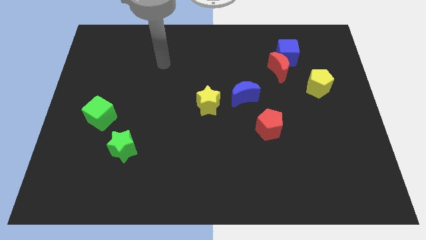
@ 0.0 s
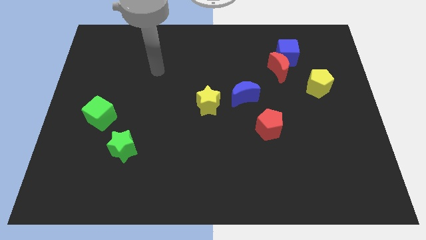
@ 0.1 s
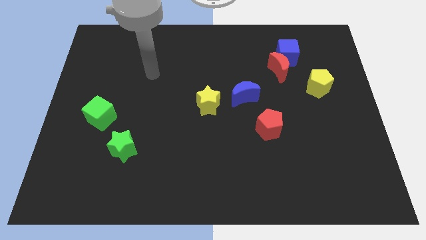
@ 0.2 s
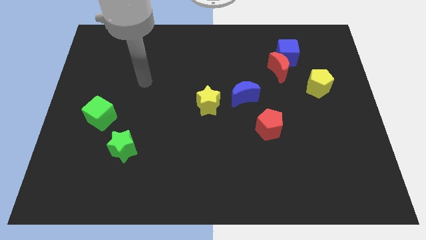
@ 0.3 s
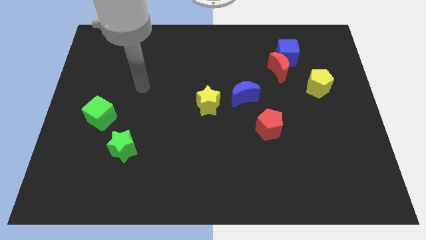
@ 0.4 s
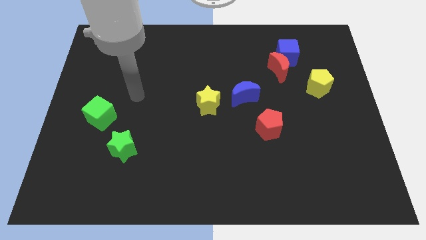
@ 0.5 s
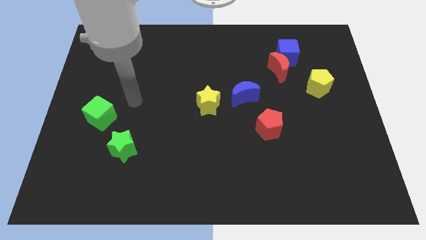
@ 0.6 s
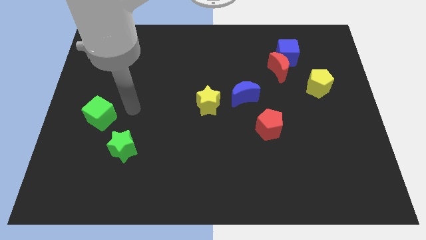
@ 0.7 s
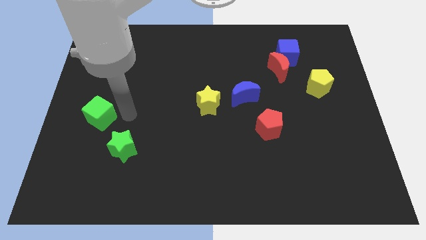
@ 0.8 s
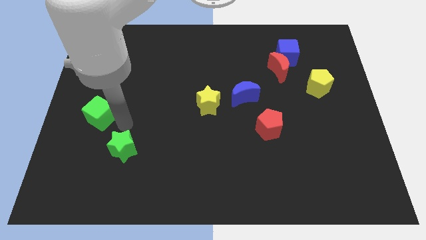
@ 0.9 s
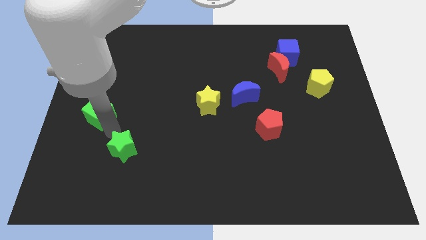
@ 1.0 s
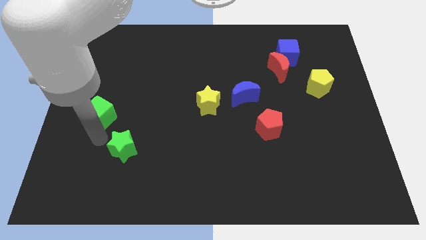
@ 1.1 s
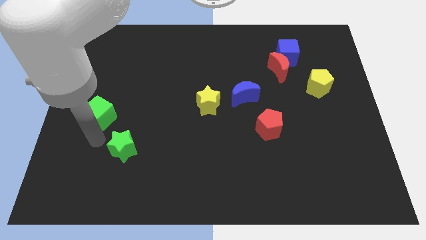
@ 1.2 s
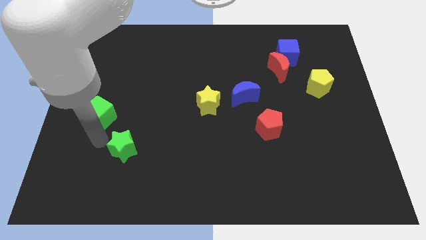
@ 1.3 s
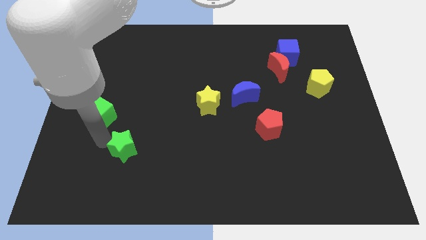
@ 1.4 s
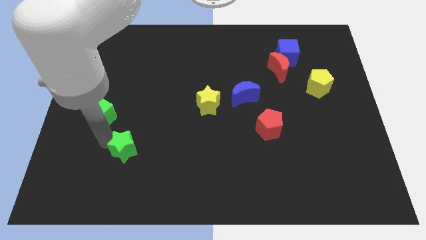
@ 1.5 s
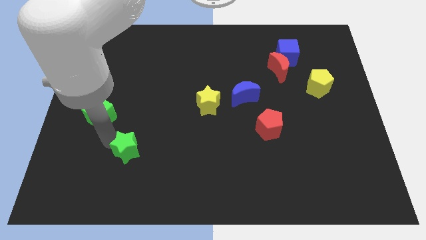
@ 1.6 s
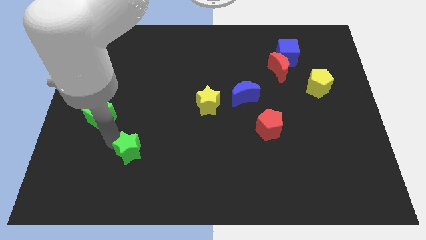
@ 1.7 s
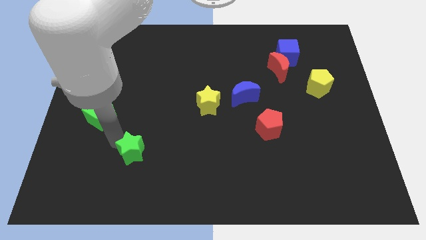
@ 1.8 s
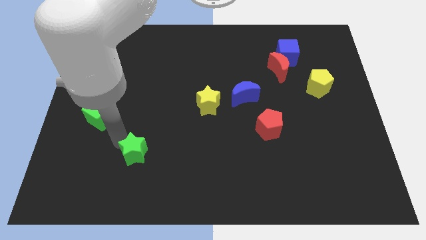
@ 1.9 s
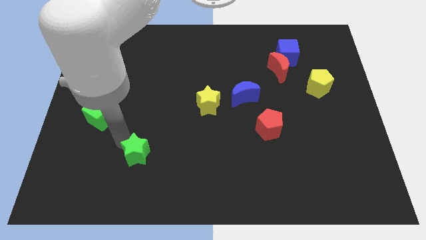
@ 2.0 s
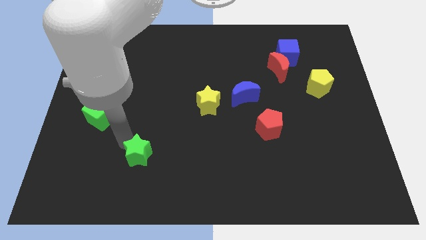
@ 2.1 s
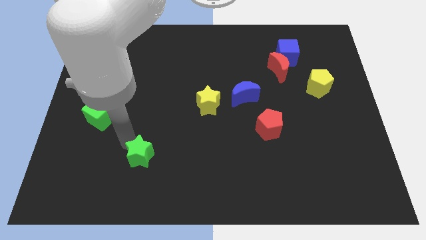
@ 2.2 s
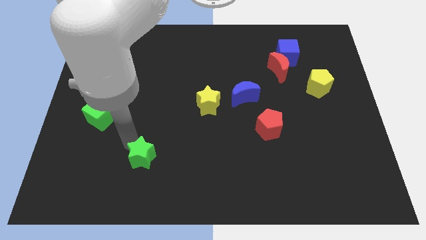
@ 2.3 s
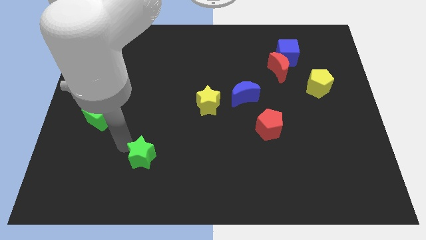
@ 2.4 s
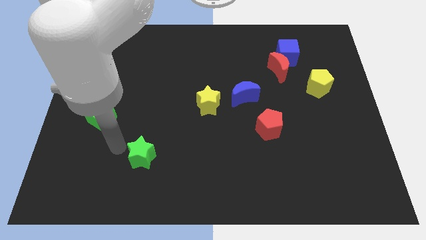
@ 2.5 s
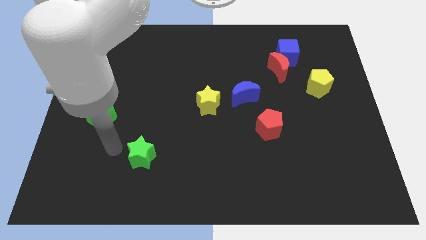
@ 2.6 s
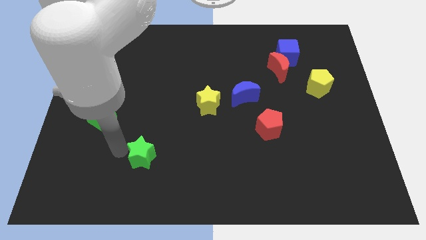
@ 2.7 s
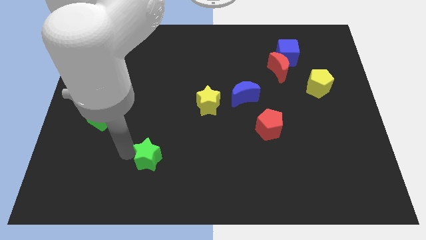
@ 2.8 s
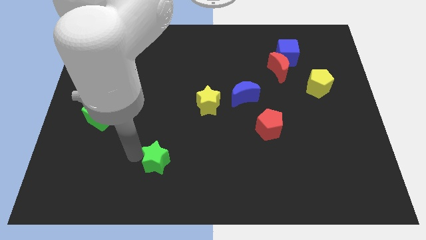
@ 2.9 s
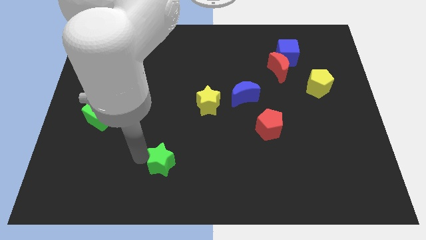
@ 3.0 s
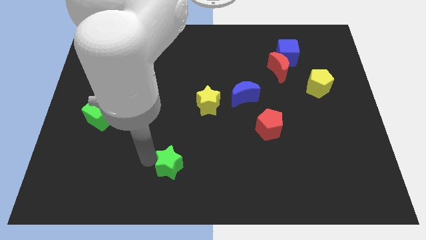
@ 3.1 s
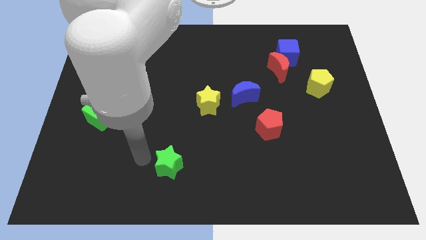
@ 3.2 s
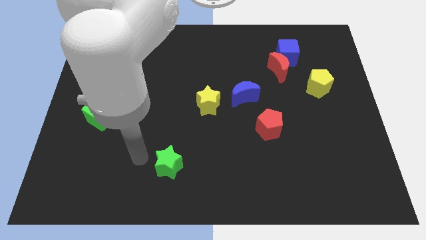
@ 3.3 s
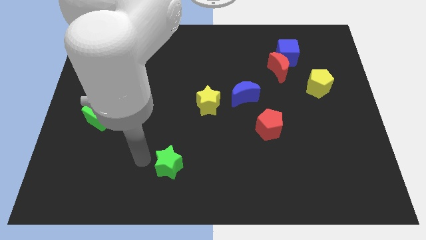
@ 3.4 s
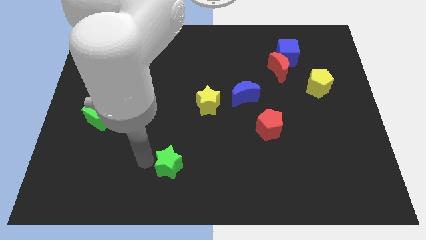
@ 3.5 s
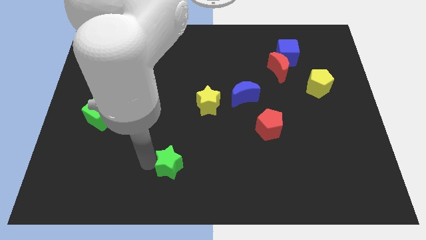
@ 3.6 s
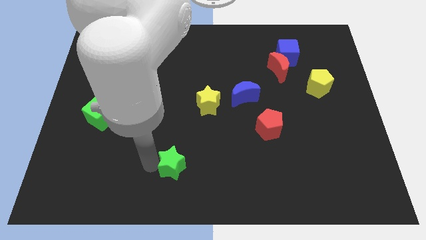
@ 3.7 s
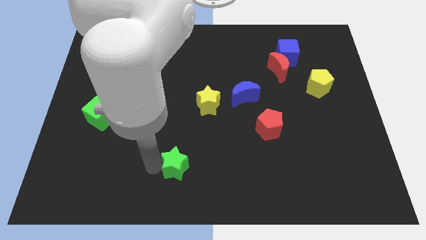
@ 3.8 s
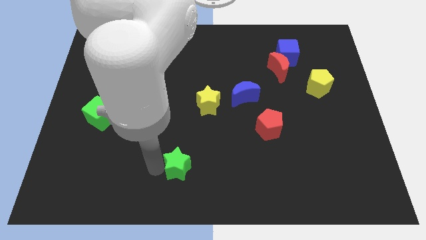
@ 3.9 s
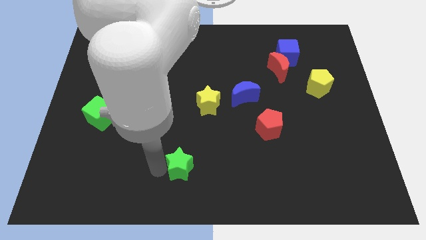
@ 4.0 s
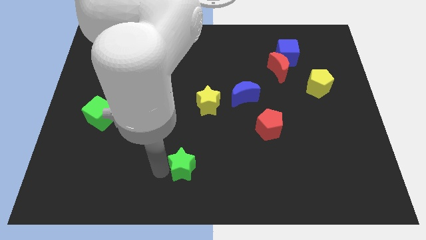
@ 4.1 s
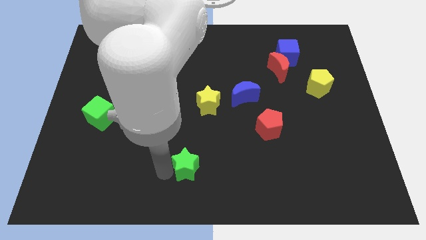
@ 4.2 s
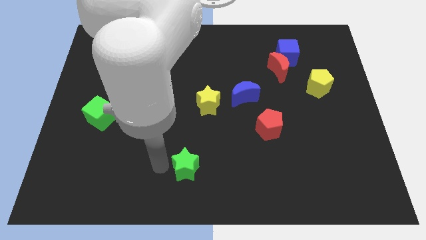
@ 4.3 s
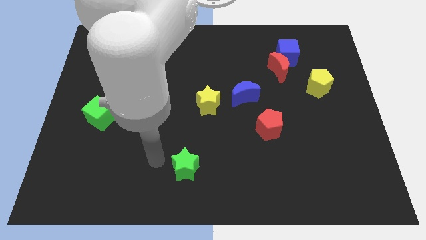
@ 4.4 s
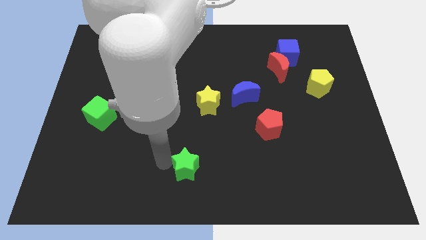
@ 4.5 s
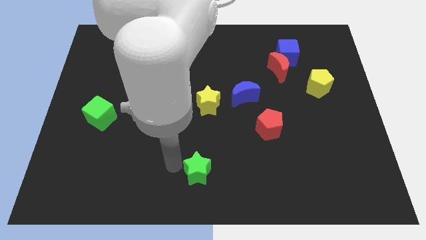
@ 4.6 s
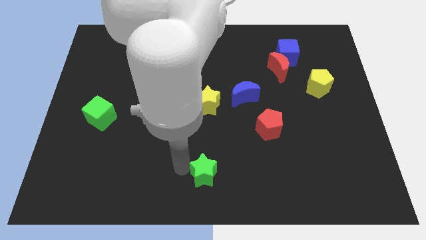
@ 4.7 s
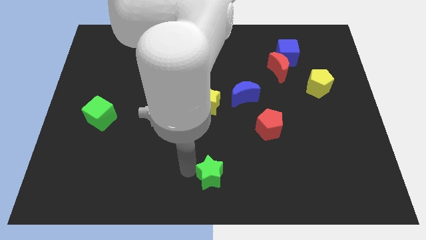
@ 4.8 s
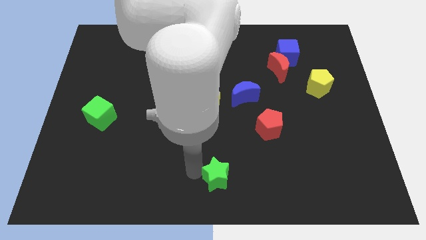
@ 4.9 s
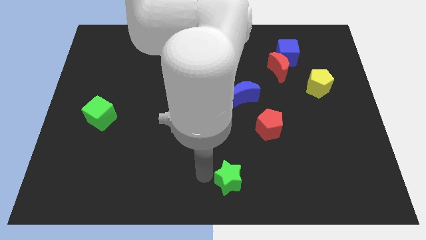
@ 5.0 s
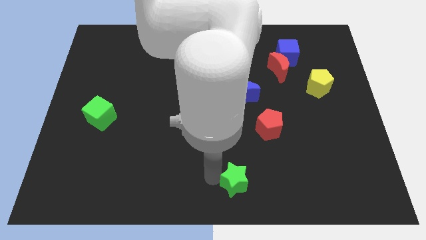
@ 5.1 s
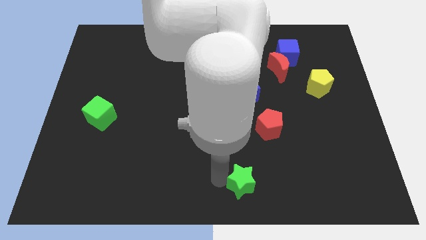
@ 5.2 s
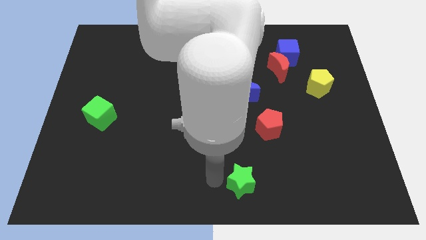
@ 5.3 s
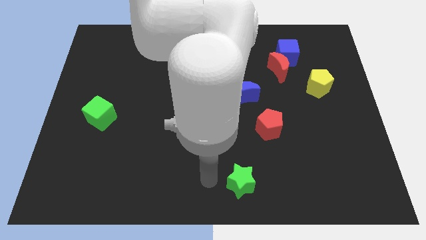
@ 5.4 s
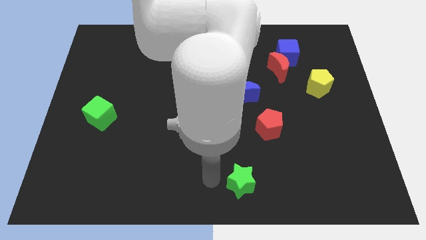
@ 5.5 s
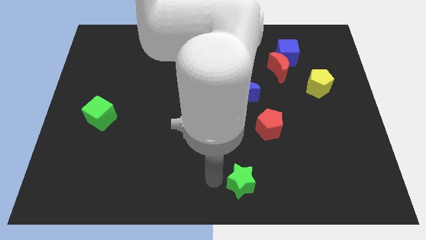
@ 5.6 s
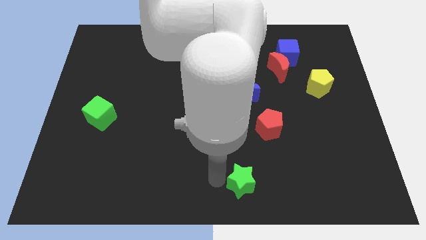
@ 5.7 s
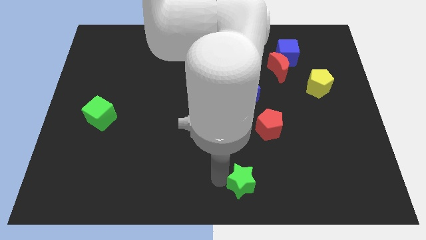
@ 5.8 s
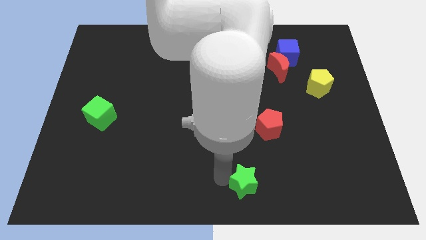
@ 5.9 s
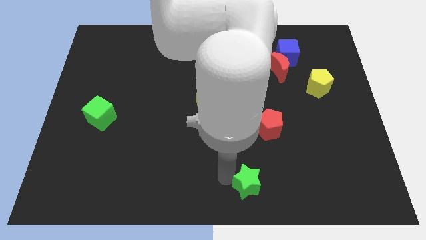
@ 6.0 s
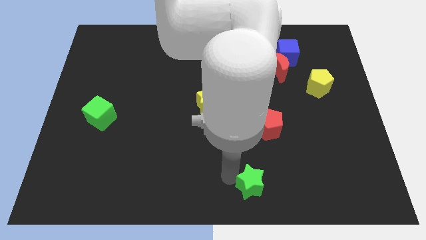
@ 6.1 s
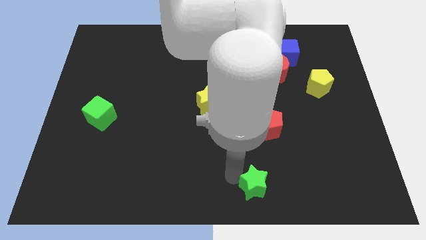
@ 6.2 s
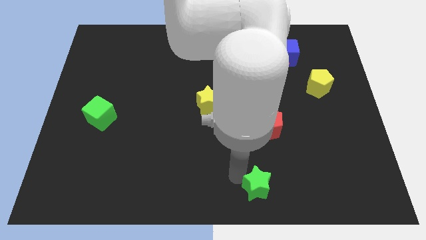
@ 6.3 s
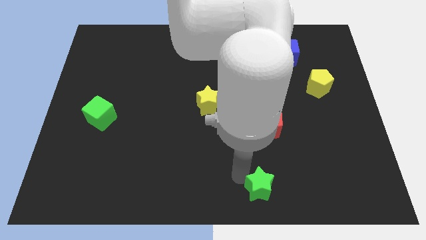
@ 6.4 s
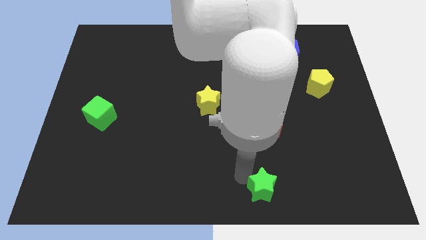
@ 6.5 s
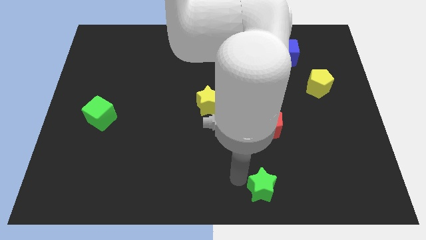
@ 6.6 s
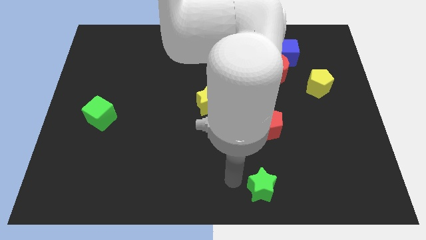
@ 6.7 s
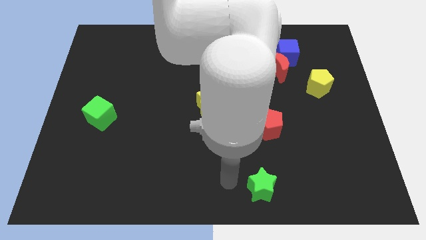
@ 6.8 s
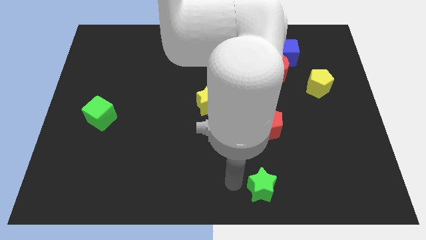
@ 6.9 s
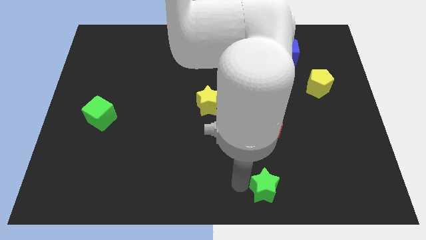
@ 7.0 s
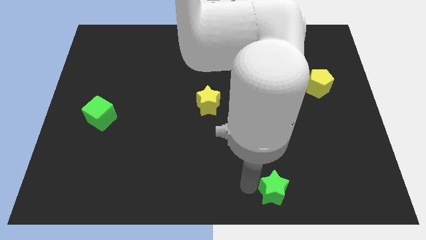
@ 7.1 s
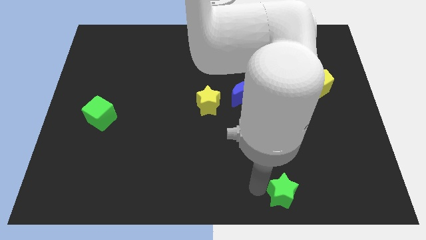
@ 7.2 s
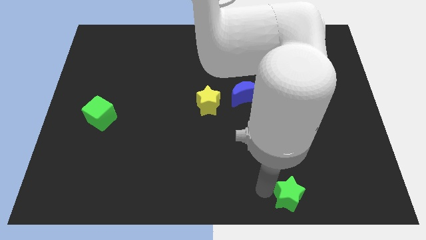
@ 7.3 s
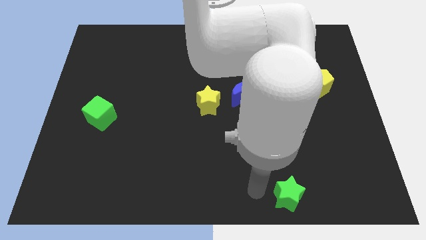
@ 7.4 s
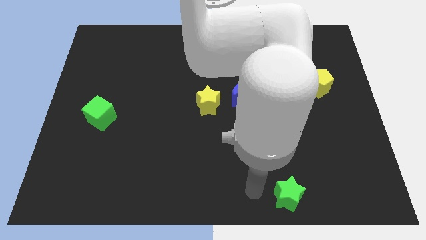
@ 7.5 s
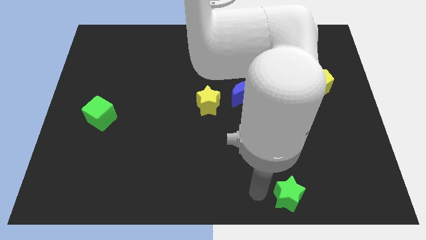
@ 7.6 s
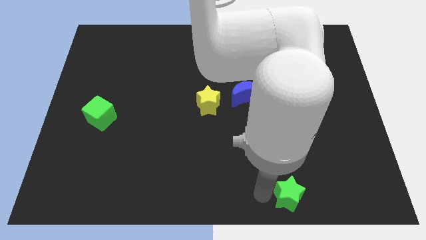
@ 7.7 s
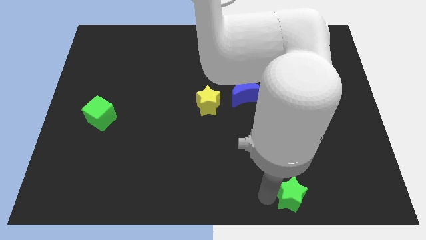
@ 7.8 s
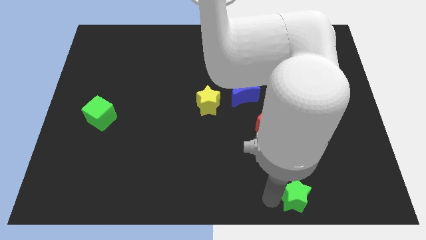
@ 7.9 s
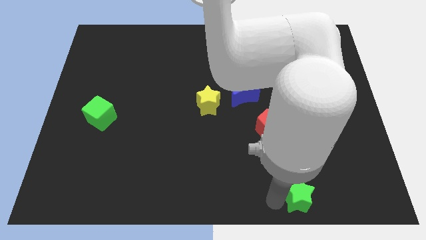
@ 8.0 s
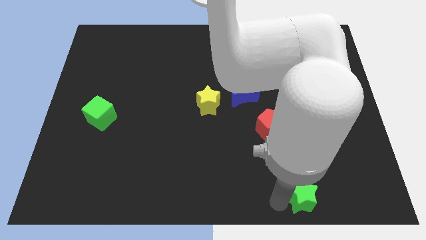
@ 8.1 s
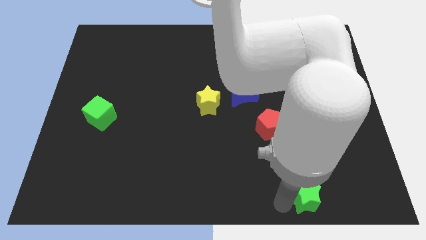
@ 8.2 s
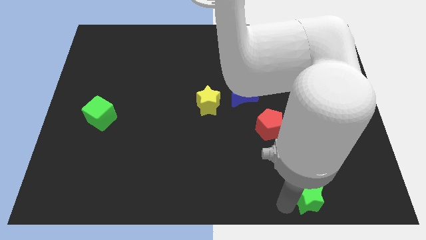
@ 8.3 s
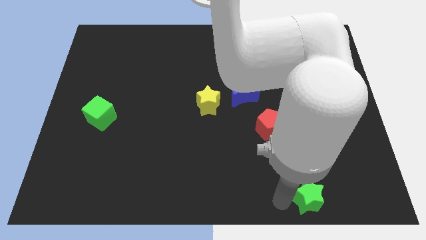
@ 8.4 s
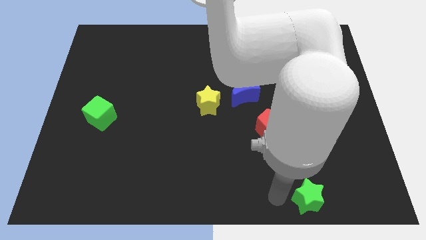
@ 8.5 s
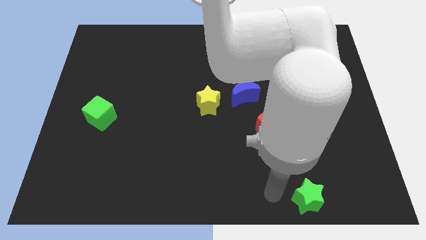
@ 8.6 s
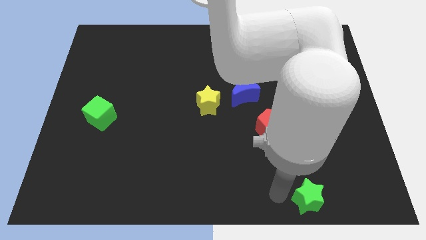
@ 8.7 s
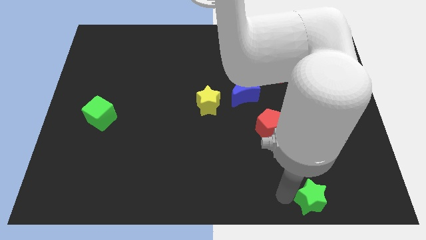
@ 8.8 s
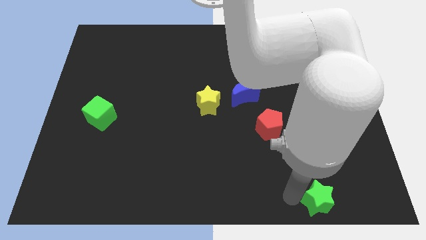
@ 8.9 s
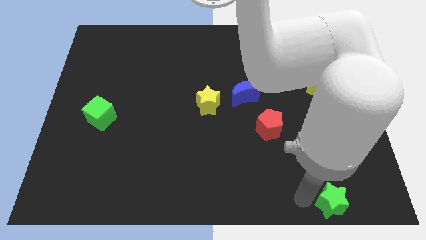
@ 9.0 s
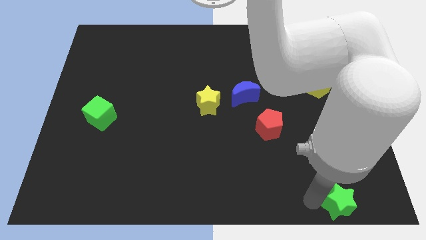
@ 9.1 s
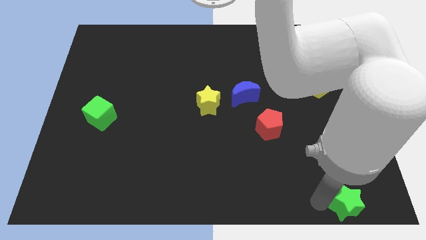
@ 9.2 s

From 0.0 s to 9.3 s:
slide the green star to the bottom right of the board
